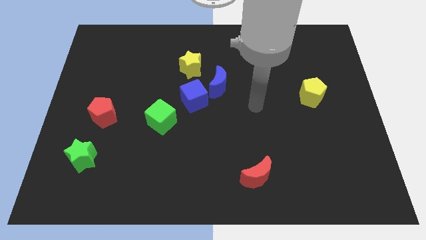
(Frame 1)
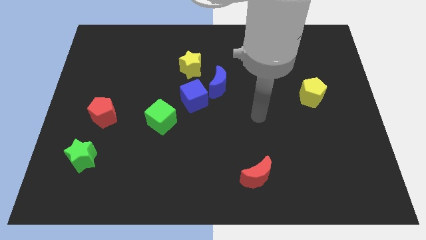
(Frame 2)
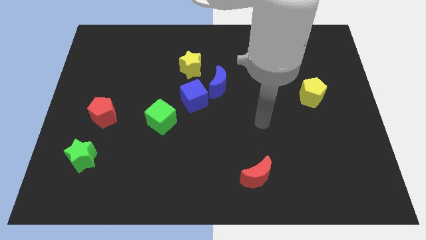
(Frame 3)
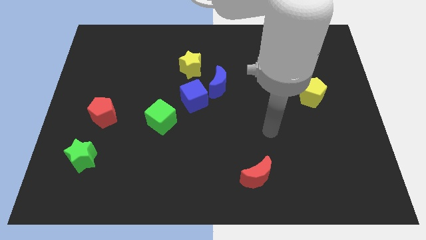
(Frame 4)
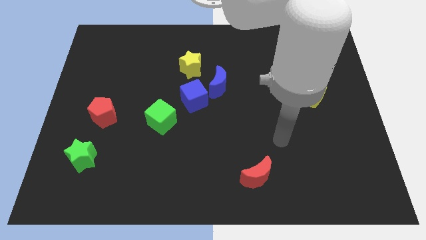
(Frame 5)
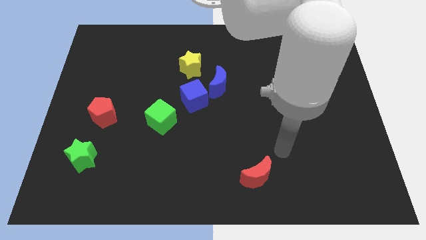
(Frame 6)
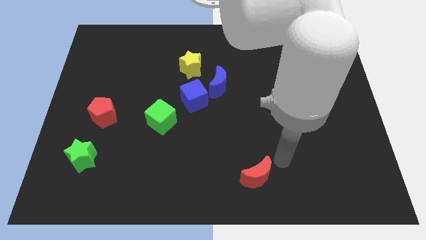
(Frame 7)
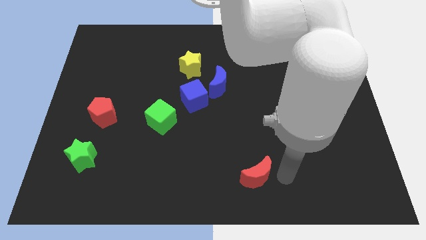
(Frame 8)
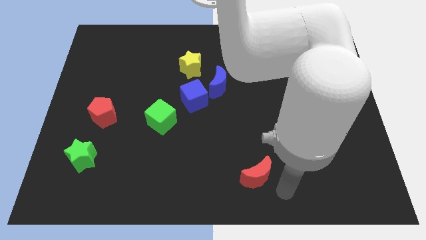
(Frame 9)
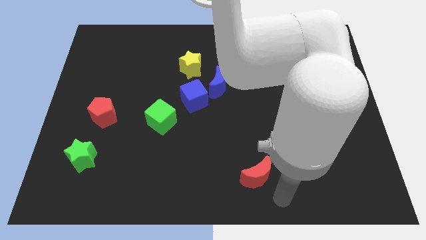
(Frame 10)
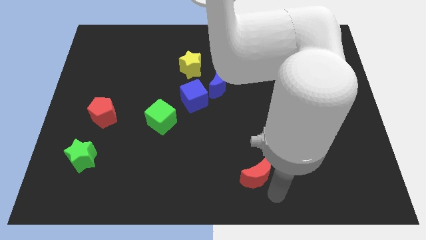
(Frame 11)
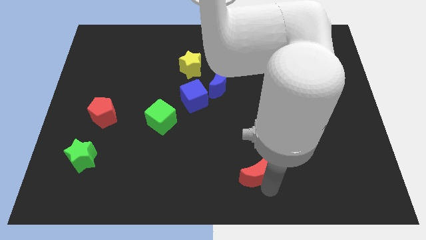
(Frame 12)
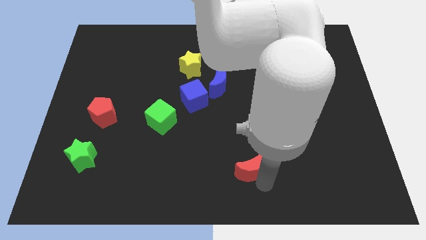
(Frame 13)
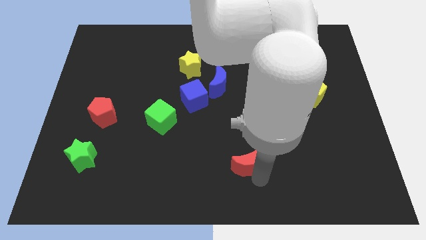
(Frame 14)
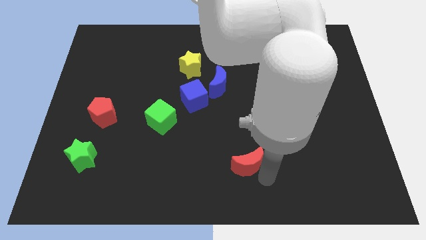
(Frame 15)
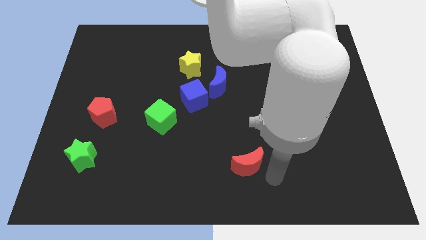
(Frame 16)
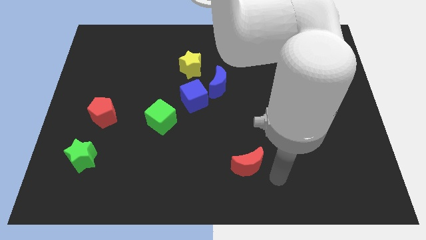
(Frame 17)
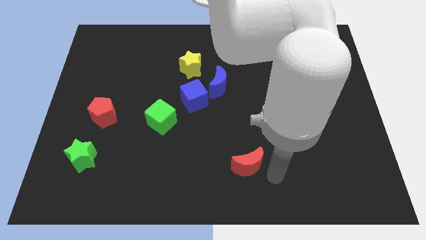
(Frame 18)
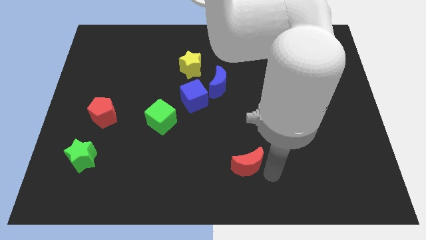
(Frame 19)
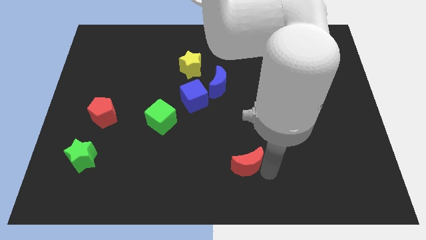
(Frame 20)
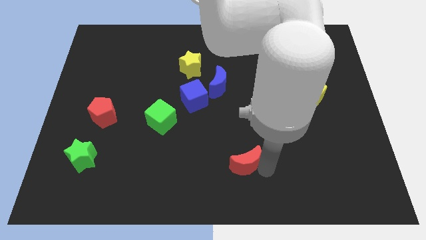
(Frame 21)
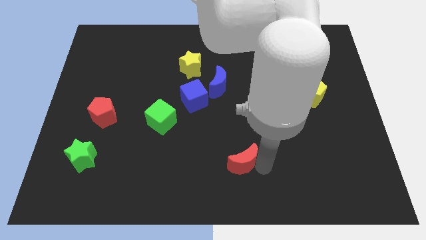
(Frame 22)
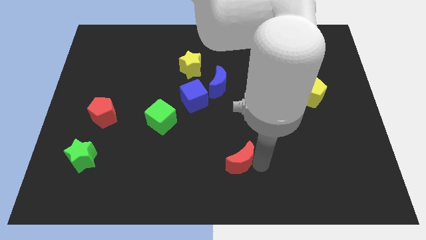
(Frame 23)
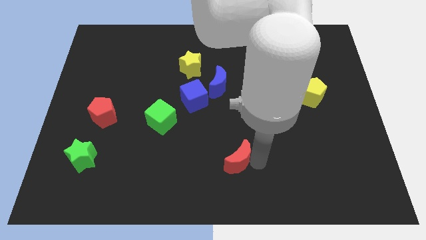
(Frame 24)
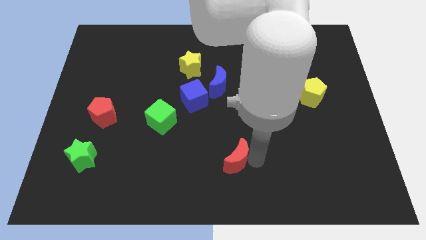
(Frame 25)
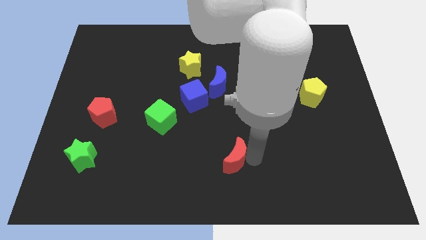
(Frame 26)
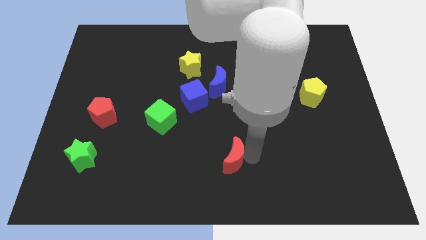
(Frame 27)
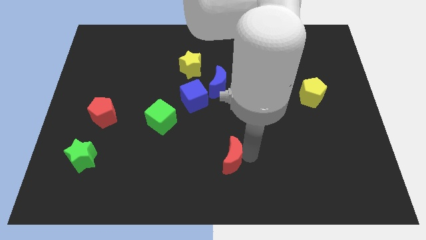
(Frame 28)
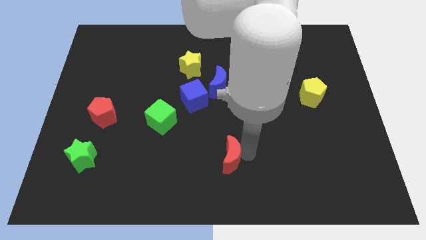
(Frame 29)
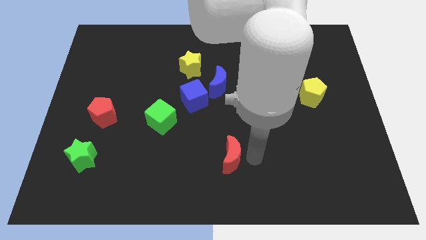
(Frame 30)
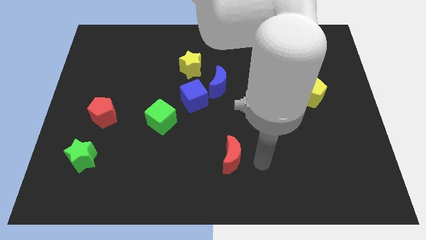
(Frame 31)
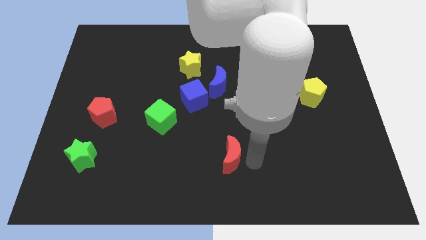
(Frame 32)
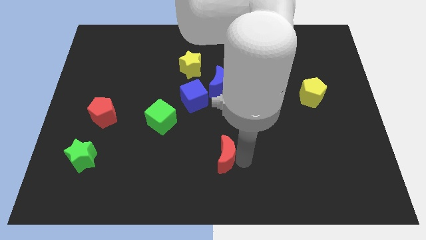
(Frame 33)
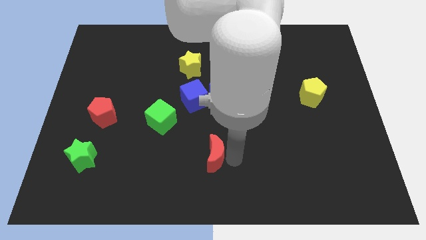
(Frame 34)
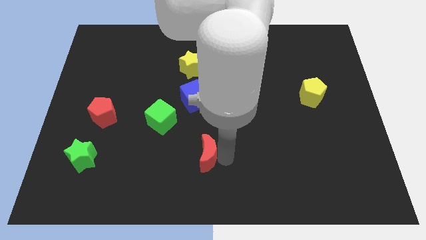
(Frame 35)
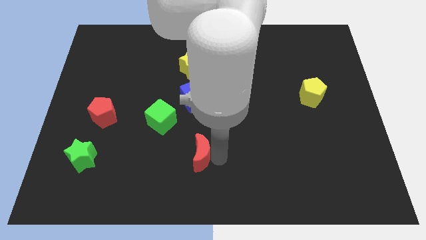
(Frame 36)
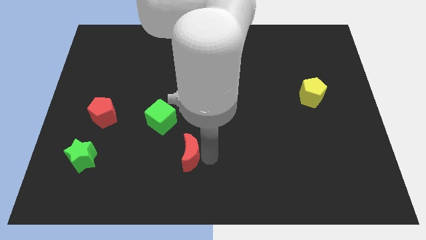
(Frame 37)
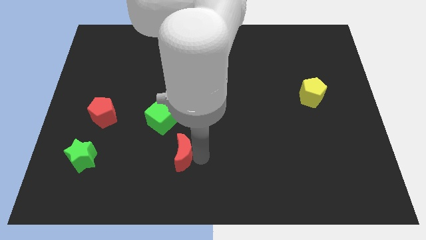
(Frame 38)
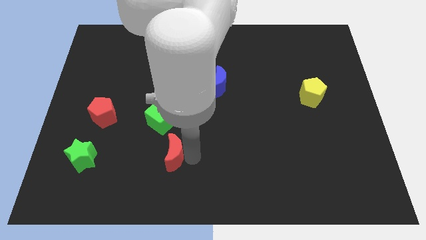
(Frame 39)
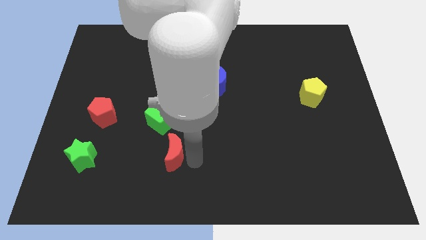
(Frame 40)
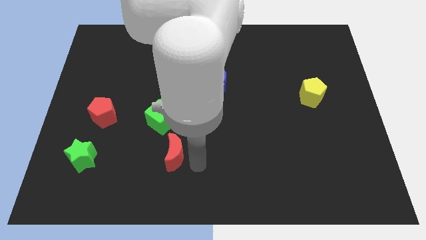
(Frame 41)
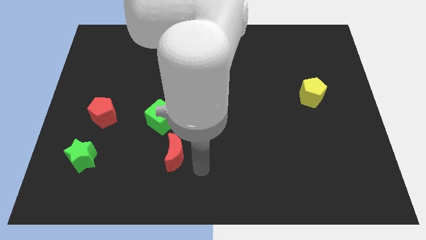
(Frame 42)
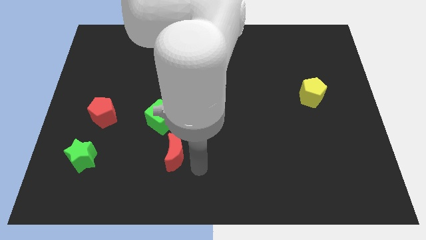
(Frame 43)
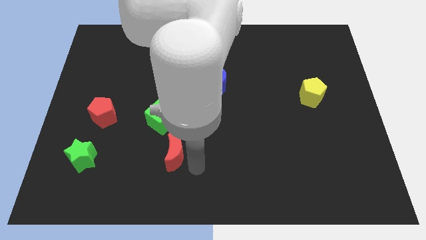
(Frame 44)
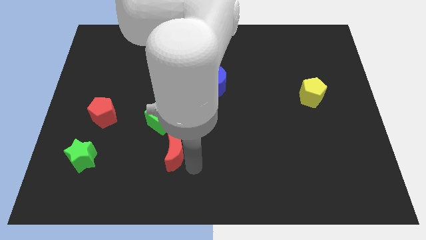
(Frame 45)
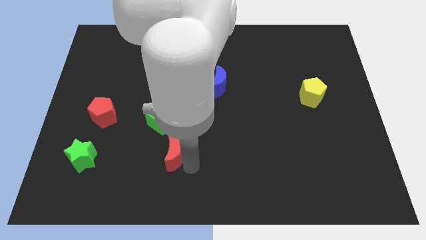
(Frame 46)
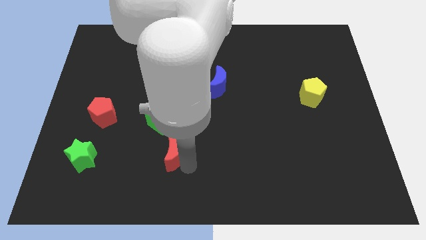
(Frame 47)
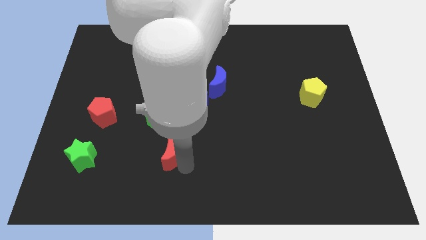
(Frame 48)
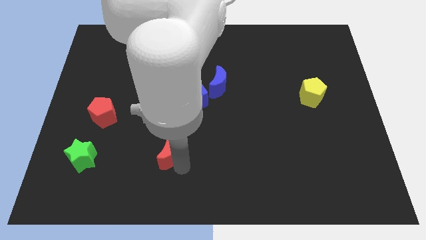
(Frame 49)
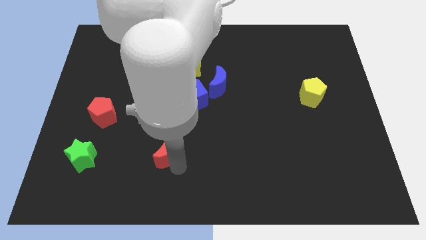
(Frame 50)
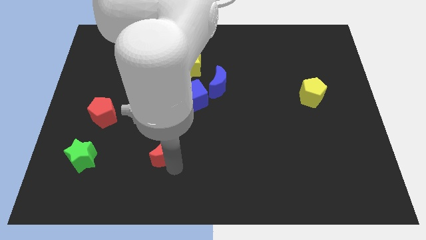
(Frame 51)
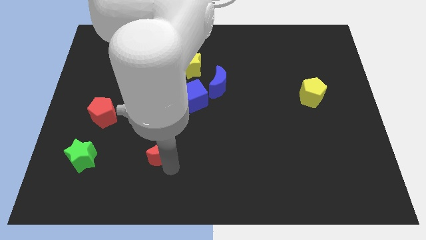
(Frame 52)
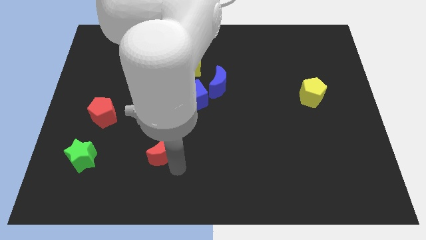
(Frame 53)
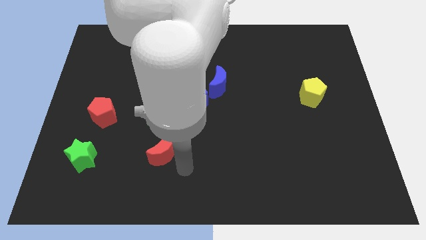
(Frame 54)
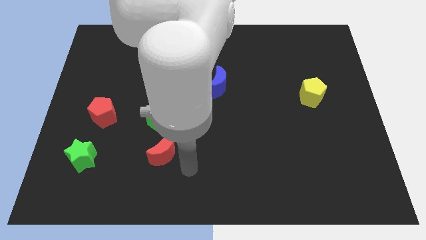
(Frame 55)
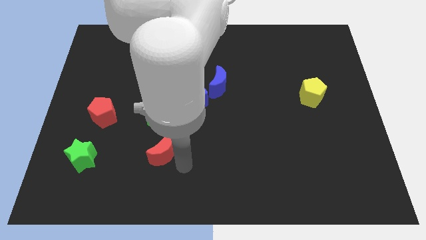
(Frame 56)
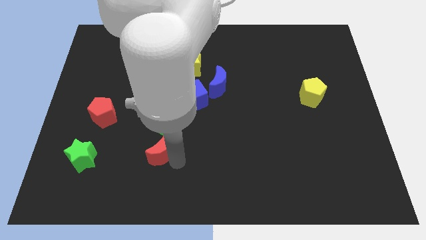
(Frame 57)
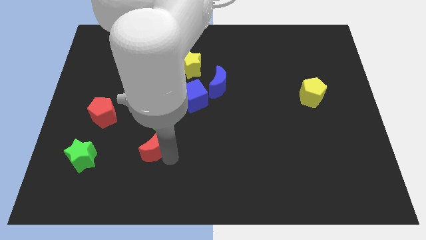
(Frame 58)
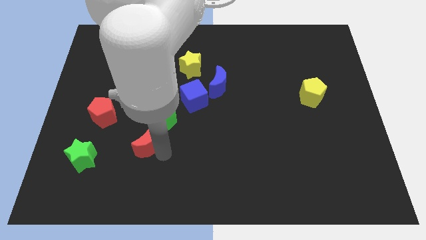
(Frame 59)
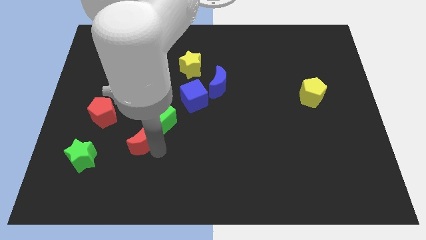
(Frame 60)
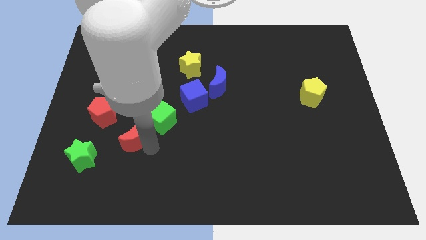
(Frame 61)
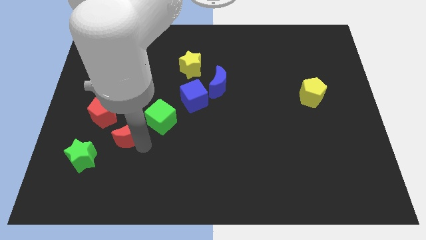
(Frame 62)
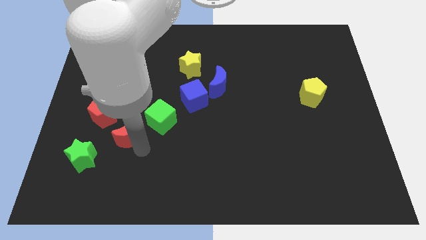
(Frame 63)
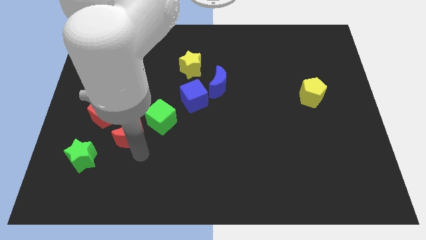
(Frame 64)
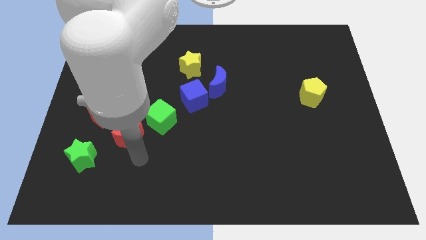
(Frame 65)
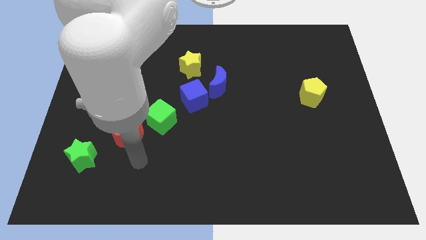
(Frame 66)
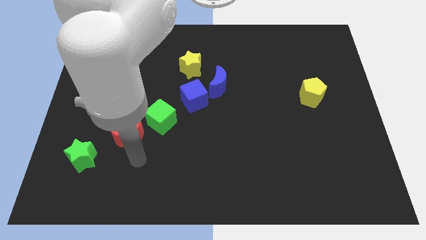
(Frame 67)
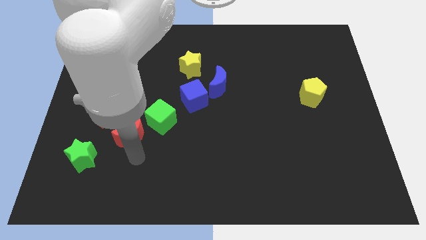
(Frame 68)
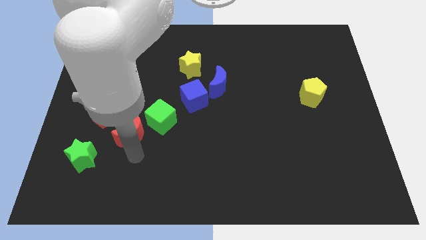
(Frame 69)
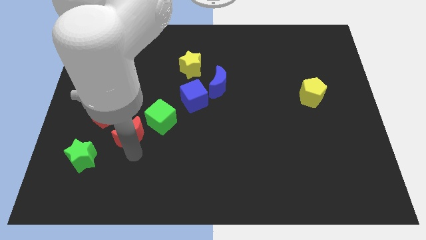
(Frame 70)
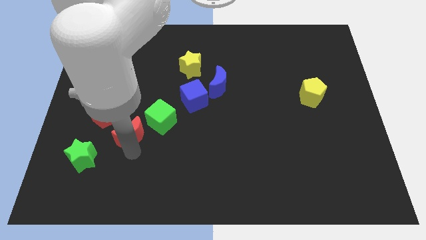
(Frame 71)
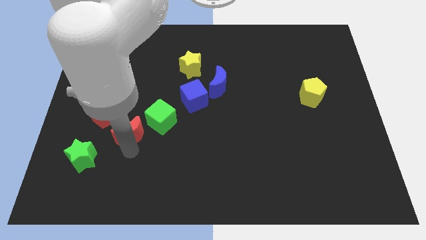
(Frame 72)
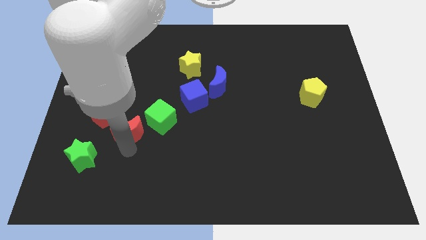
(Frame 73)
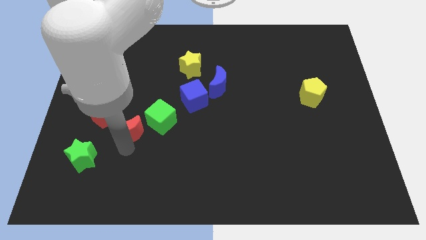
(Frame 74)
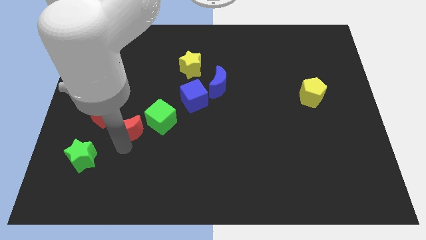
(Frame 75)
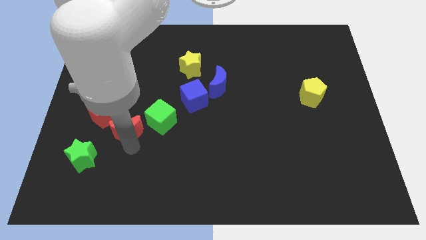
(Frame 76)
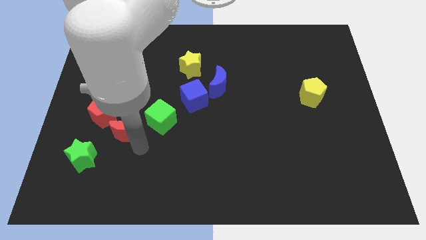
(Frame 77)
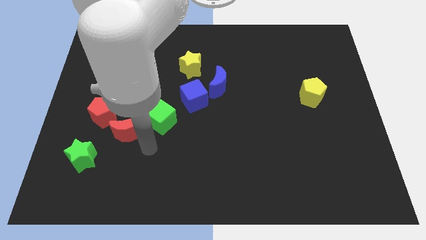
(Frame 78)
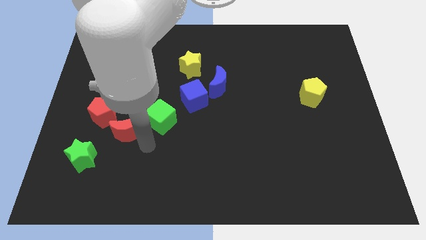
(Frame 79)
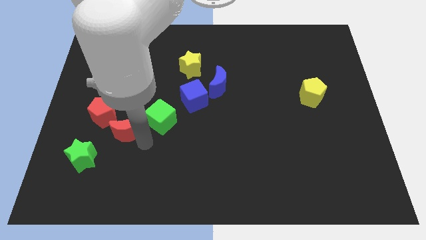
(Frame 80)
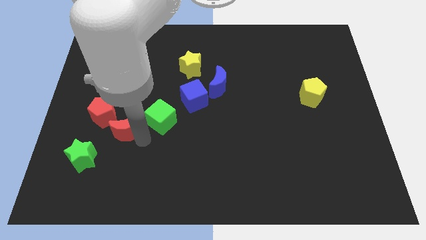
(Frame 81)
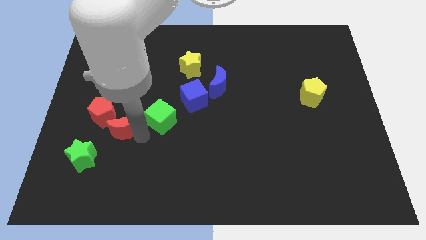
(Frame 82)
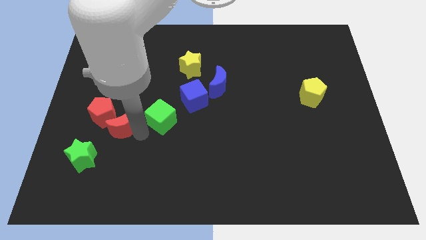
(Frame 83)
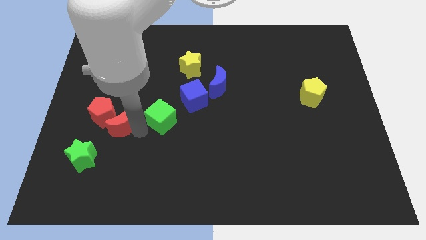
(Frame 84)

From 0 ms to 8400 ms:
push the red moon close to the red pentagon
